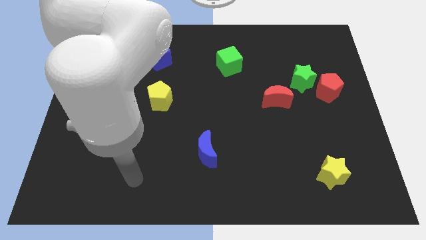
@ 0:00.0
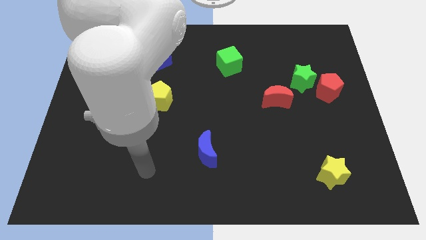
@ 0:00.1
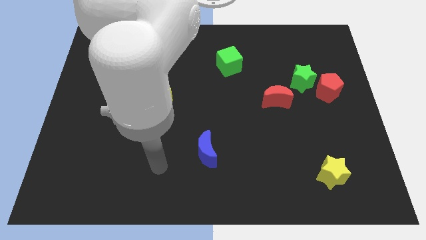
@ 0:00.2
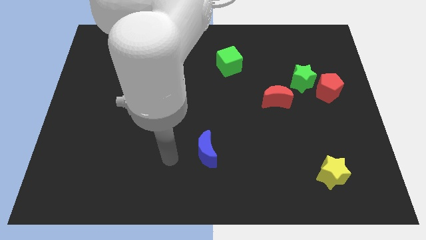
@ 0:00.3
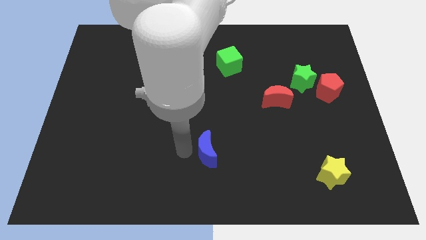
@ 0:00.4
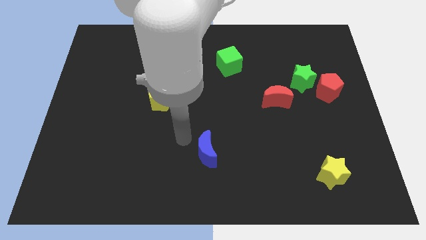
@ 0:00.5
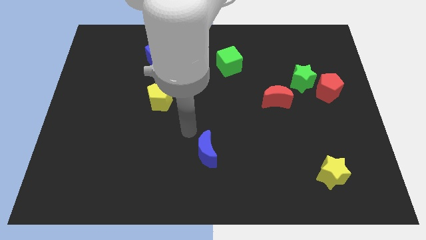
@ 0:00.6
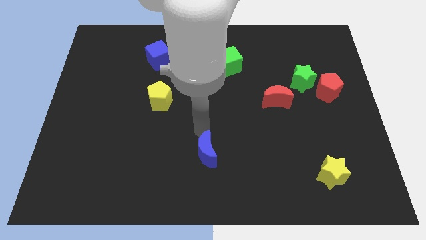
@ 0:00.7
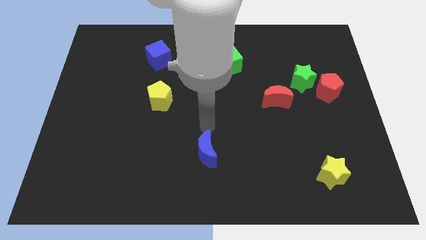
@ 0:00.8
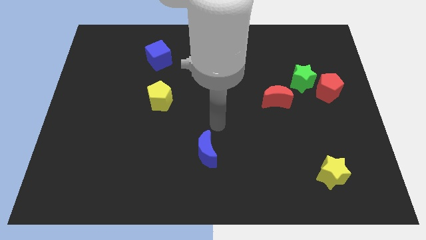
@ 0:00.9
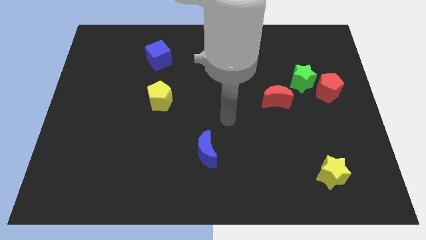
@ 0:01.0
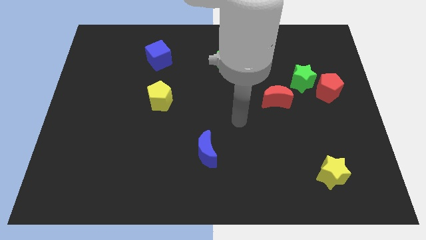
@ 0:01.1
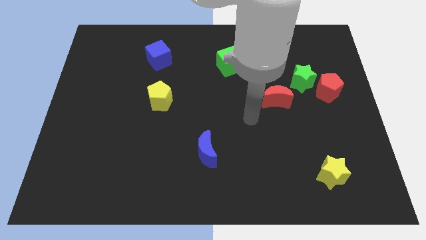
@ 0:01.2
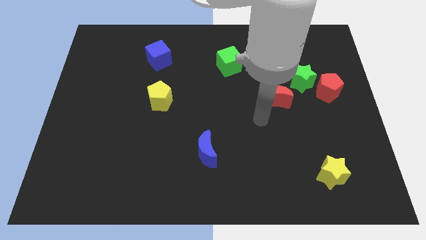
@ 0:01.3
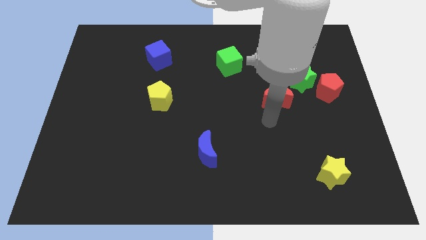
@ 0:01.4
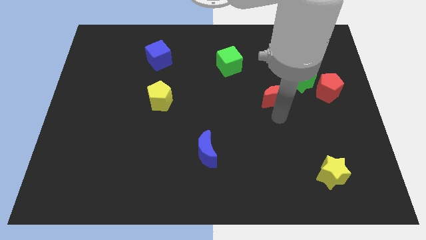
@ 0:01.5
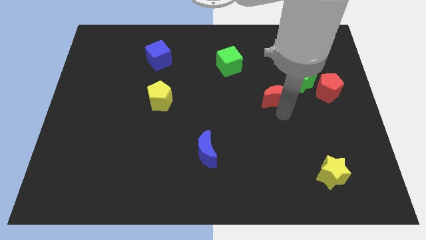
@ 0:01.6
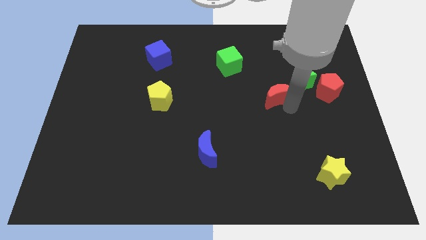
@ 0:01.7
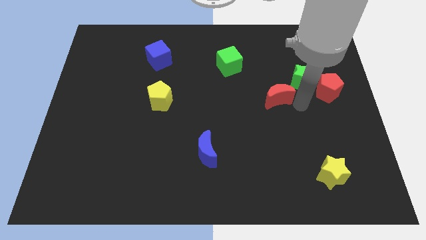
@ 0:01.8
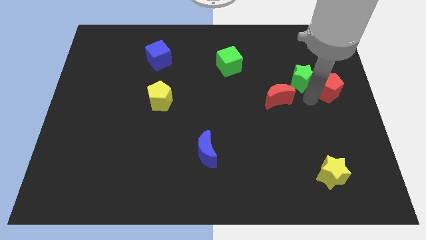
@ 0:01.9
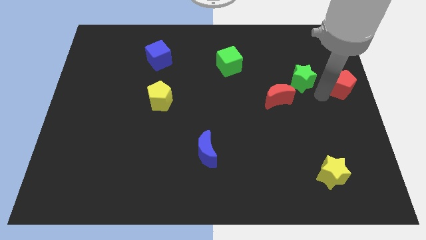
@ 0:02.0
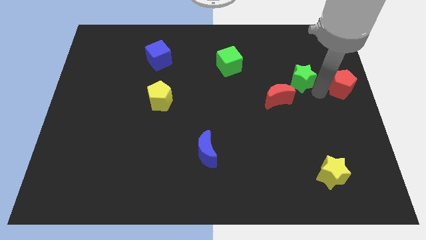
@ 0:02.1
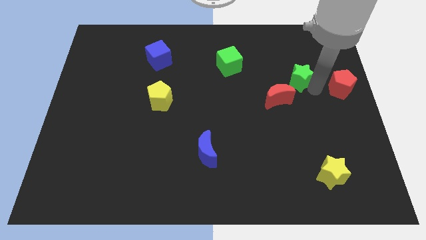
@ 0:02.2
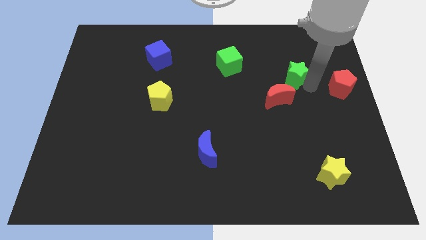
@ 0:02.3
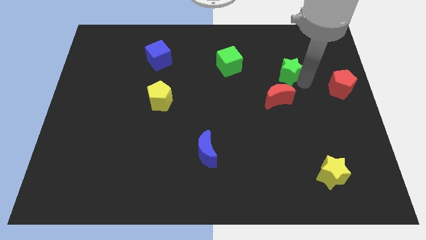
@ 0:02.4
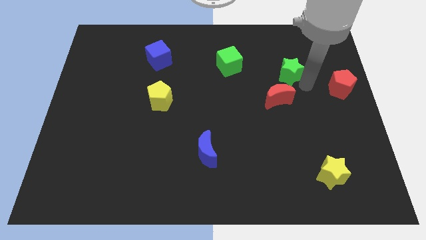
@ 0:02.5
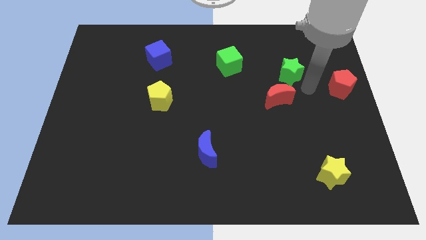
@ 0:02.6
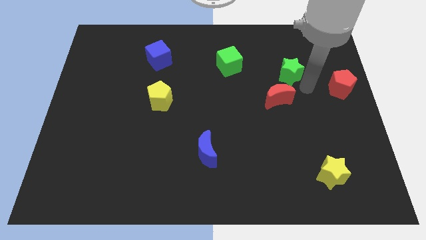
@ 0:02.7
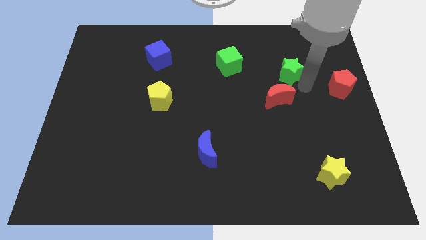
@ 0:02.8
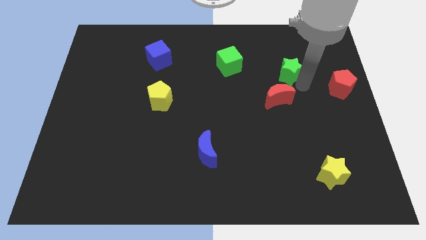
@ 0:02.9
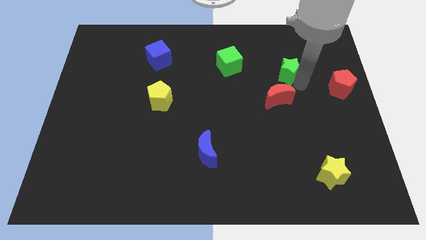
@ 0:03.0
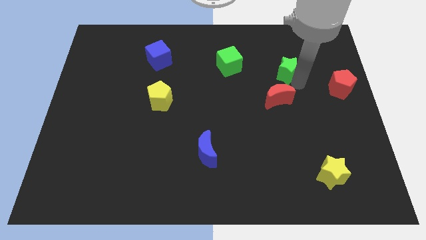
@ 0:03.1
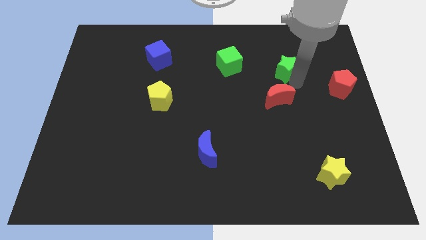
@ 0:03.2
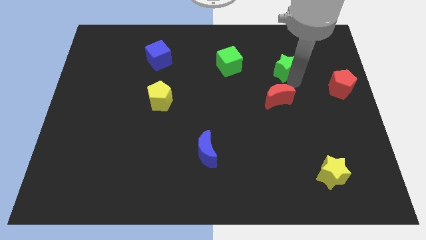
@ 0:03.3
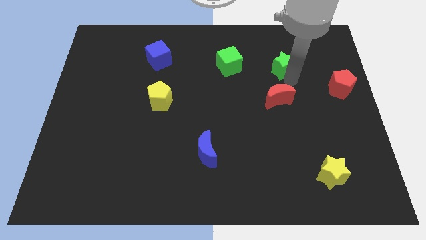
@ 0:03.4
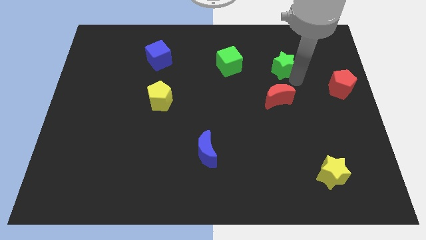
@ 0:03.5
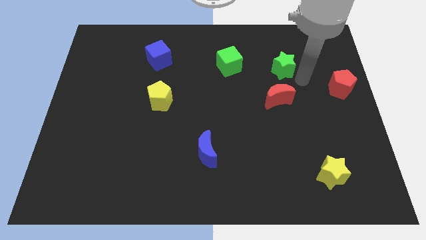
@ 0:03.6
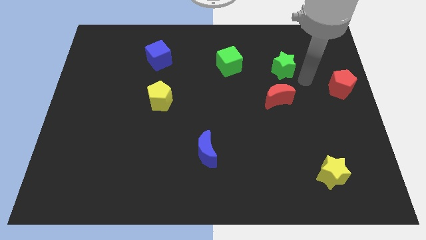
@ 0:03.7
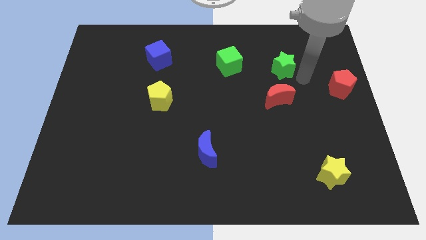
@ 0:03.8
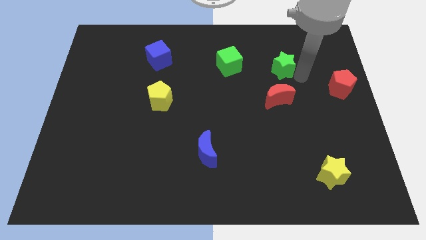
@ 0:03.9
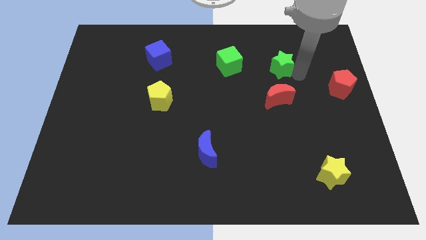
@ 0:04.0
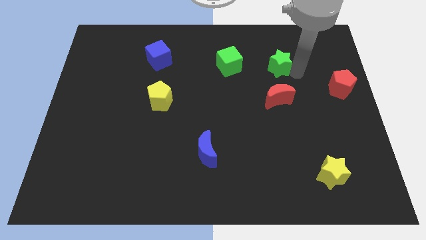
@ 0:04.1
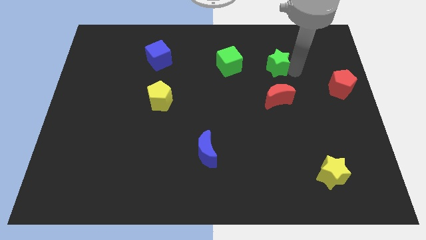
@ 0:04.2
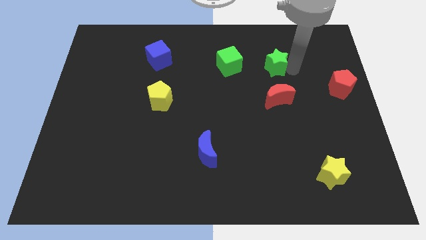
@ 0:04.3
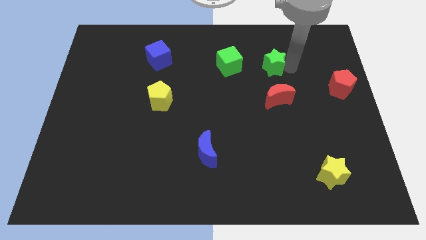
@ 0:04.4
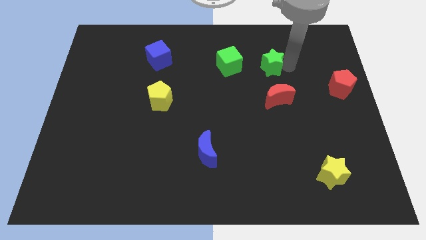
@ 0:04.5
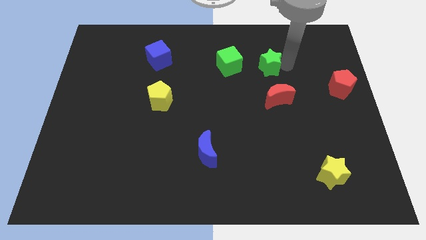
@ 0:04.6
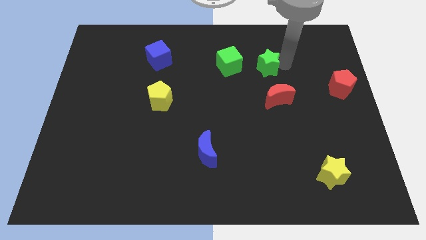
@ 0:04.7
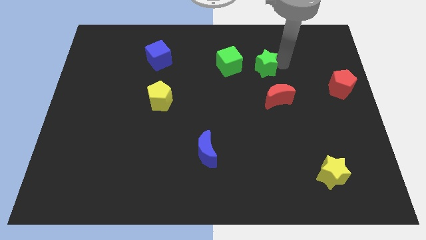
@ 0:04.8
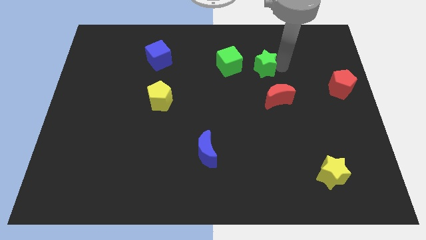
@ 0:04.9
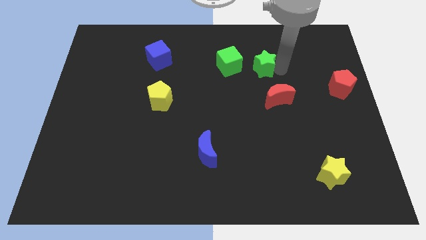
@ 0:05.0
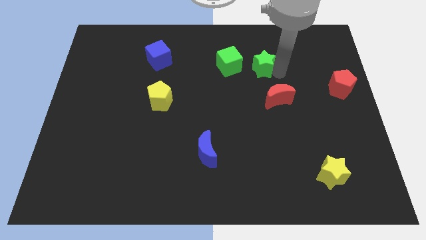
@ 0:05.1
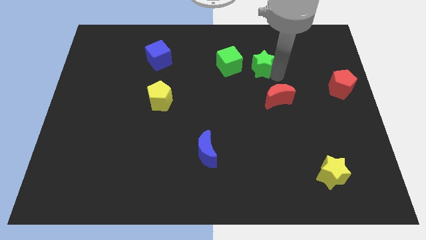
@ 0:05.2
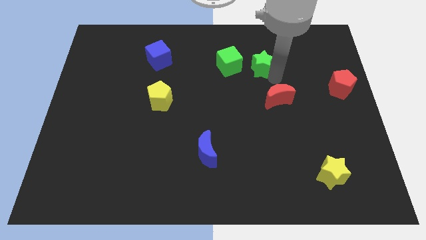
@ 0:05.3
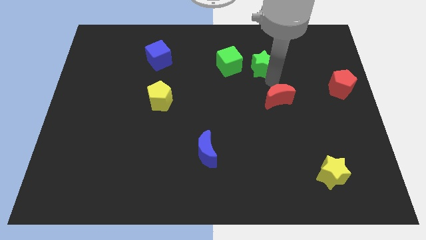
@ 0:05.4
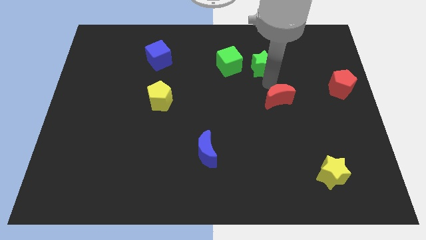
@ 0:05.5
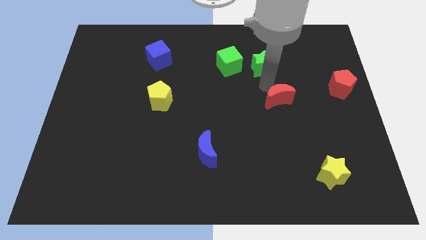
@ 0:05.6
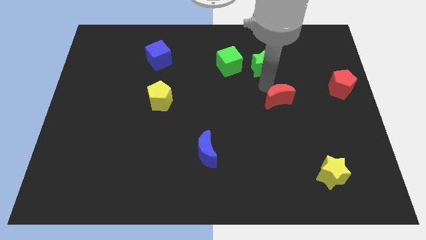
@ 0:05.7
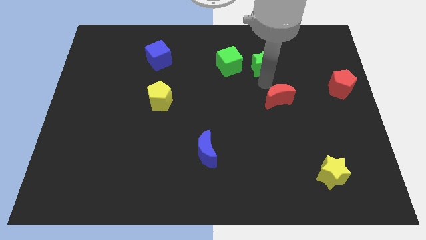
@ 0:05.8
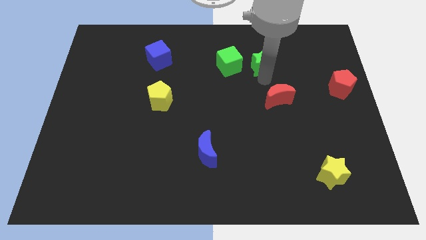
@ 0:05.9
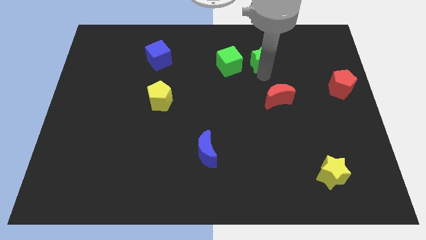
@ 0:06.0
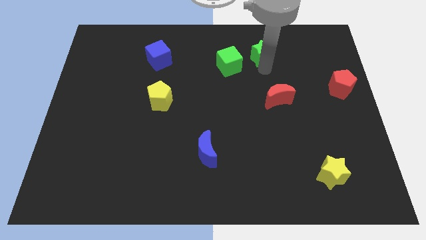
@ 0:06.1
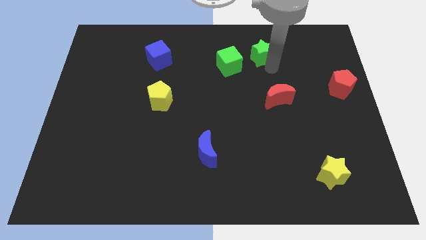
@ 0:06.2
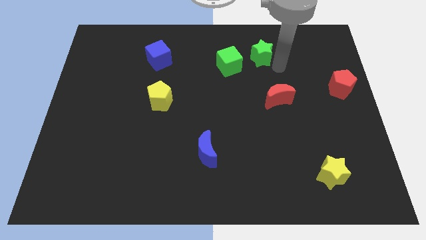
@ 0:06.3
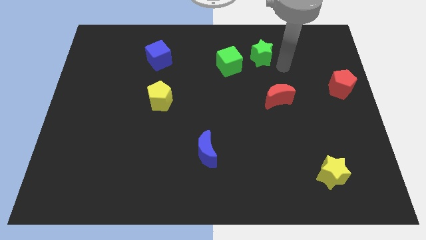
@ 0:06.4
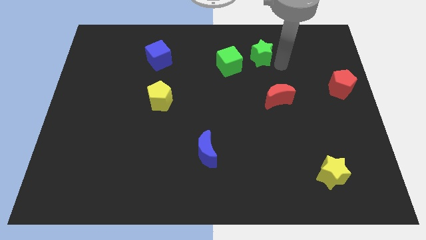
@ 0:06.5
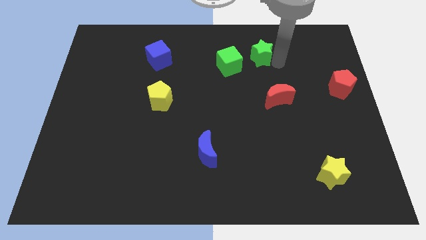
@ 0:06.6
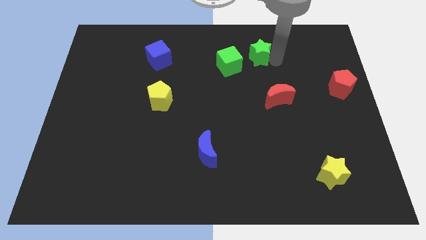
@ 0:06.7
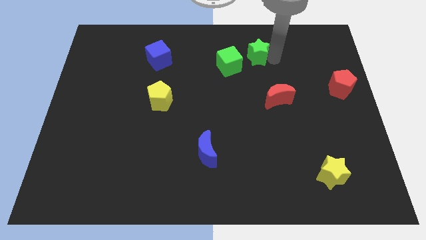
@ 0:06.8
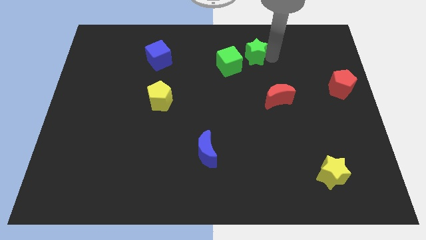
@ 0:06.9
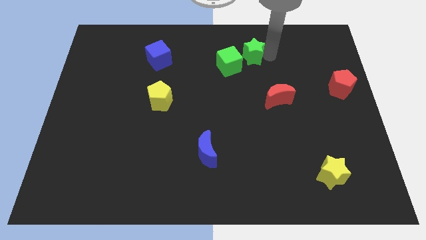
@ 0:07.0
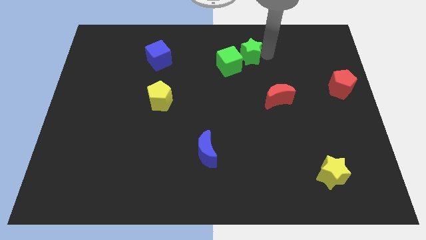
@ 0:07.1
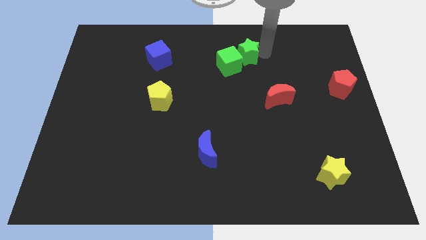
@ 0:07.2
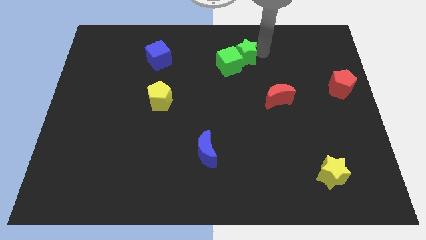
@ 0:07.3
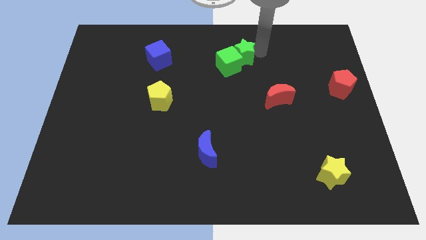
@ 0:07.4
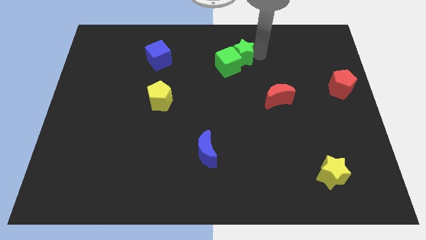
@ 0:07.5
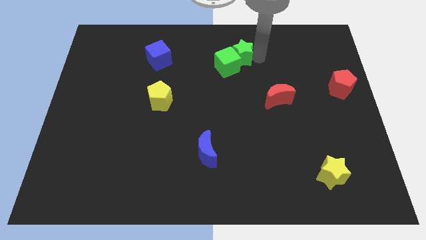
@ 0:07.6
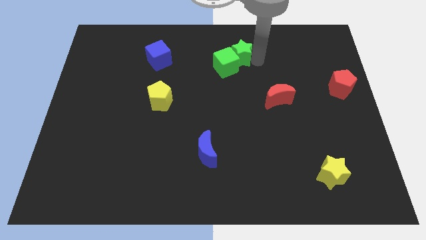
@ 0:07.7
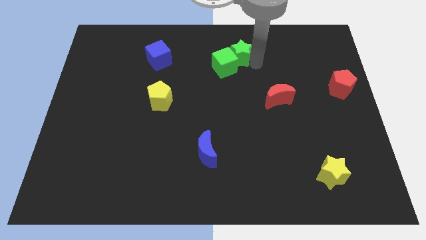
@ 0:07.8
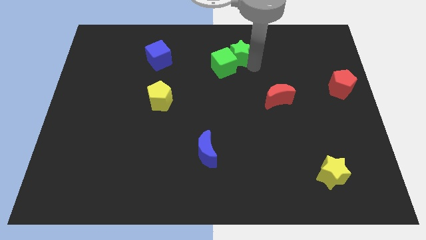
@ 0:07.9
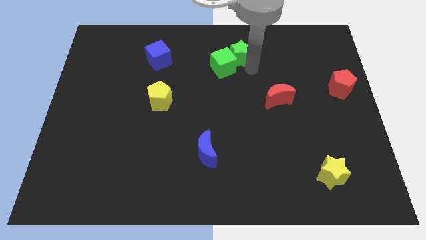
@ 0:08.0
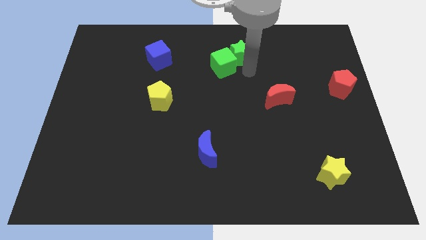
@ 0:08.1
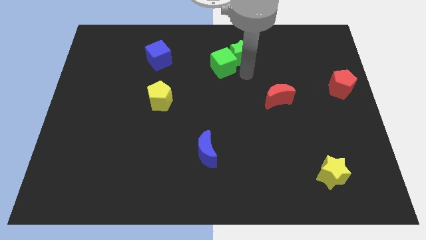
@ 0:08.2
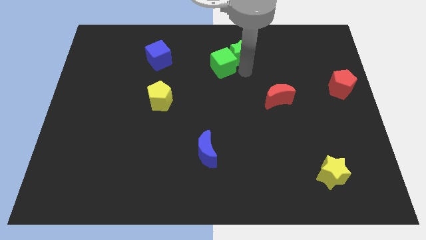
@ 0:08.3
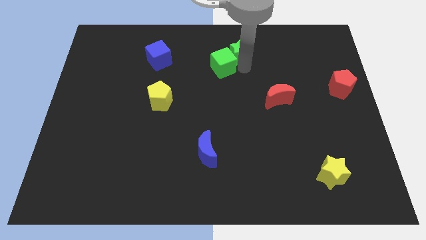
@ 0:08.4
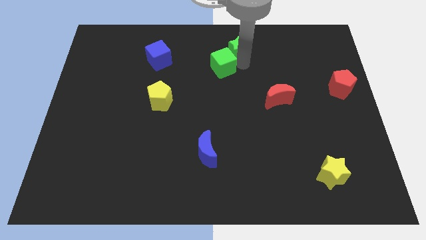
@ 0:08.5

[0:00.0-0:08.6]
put the green star to the top
